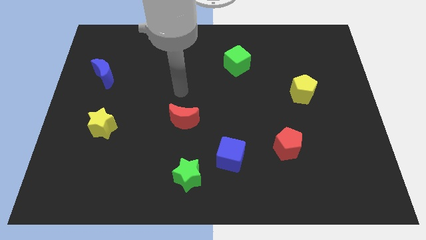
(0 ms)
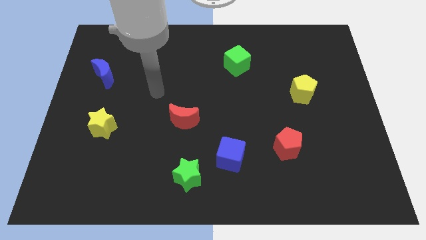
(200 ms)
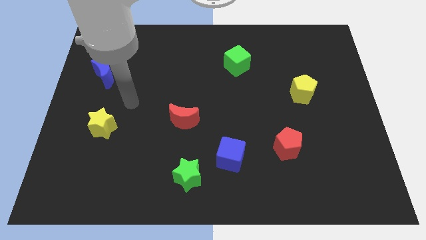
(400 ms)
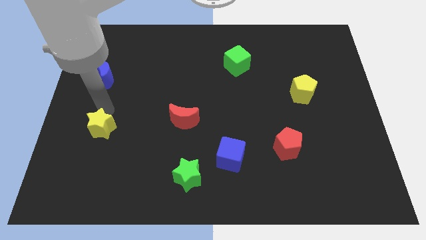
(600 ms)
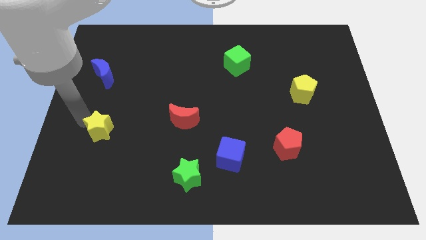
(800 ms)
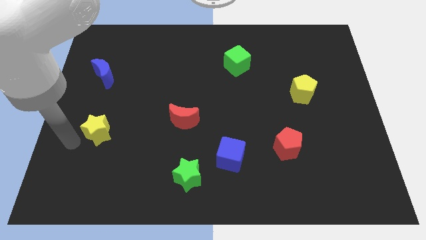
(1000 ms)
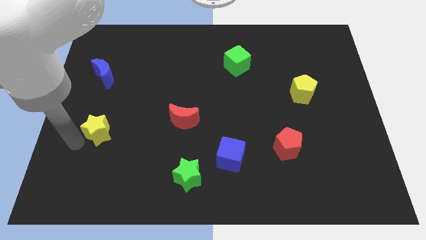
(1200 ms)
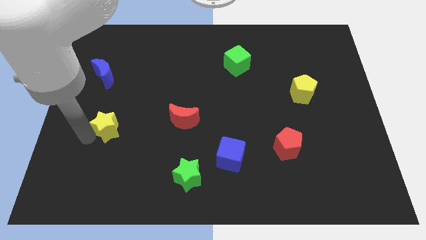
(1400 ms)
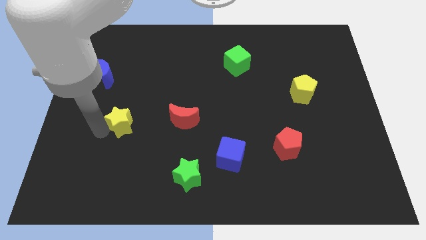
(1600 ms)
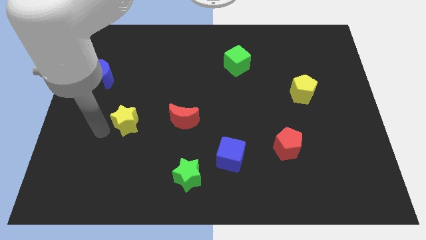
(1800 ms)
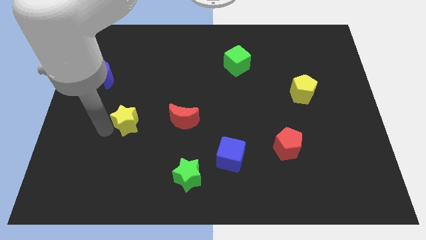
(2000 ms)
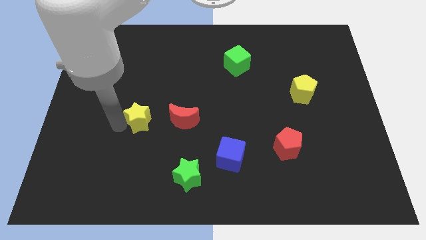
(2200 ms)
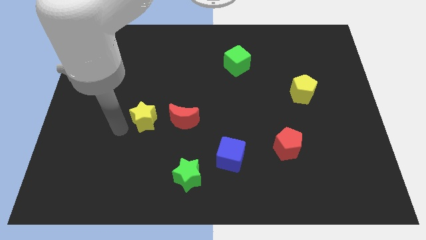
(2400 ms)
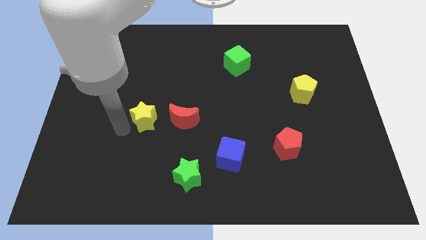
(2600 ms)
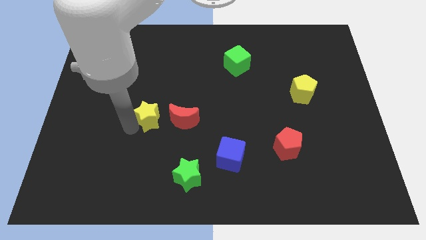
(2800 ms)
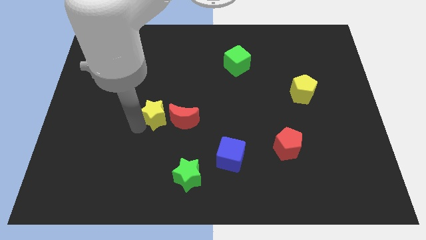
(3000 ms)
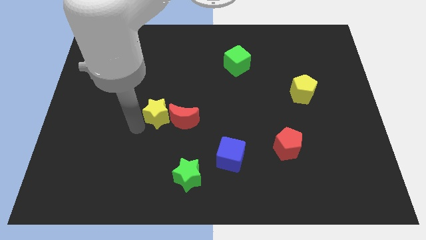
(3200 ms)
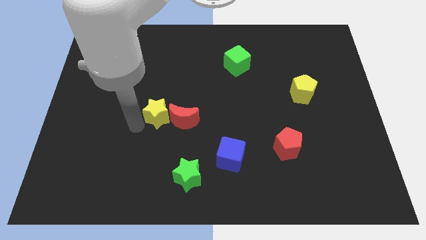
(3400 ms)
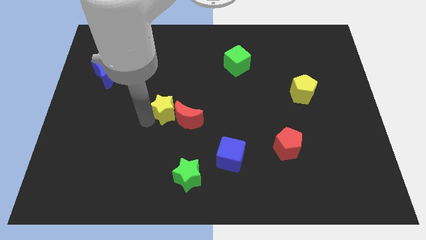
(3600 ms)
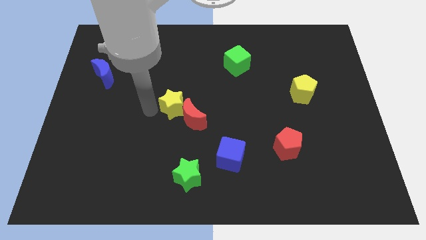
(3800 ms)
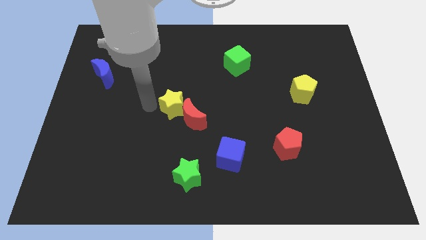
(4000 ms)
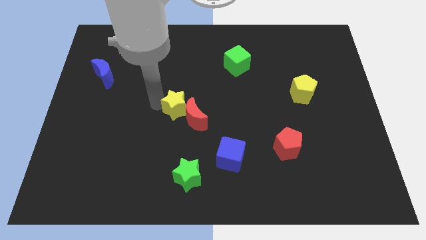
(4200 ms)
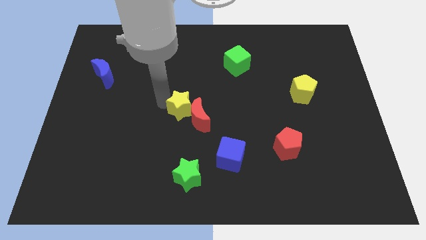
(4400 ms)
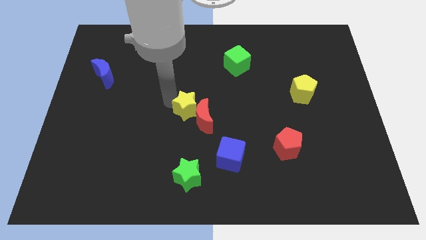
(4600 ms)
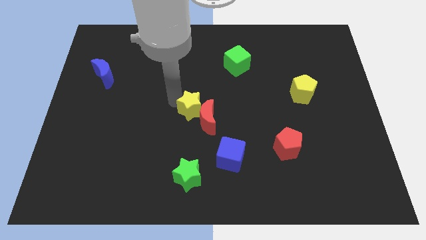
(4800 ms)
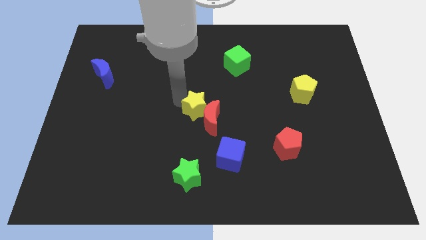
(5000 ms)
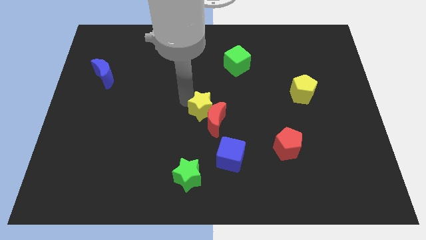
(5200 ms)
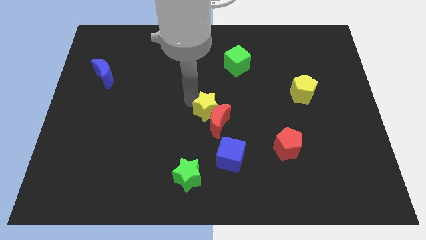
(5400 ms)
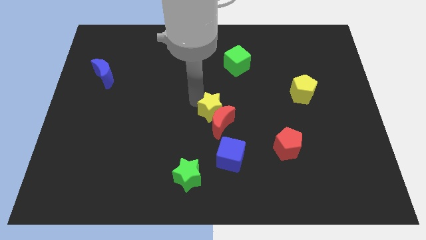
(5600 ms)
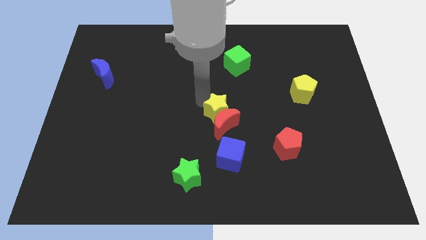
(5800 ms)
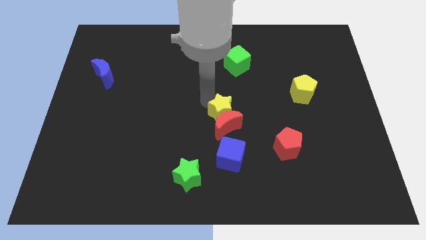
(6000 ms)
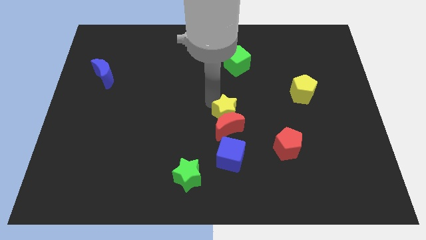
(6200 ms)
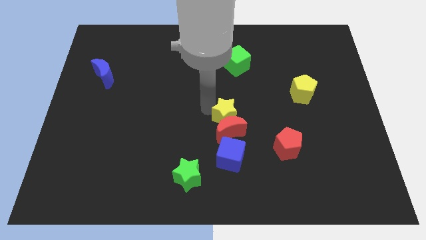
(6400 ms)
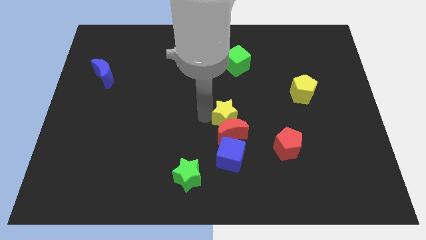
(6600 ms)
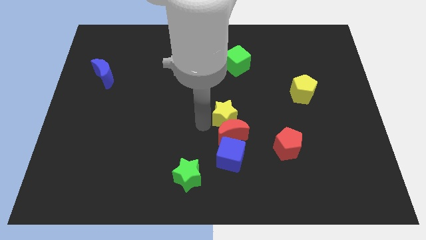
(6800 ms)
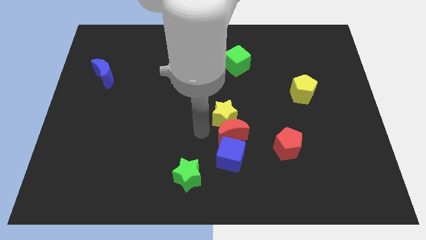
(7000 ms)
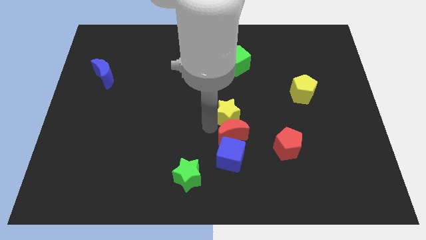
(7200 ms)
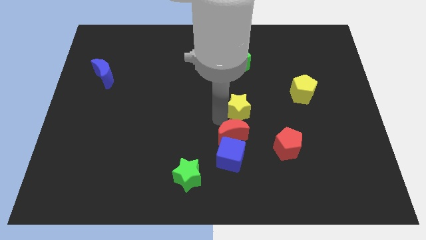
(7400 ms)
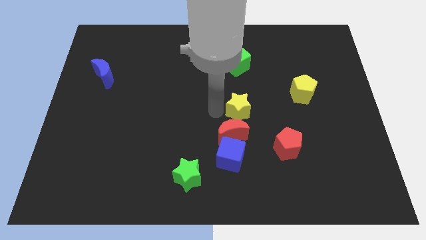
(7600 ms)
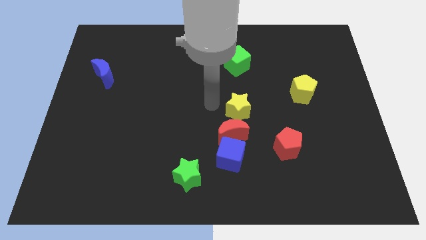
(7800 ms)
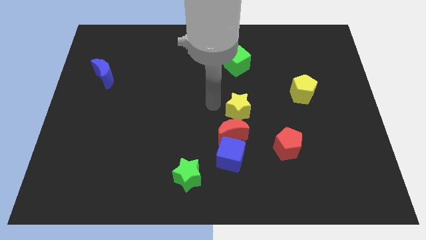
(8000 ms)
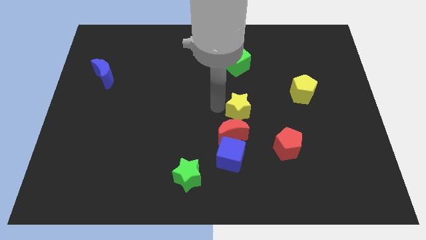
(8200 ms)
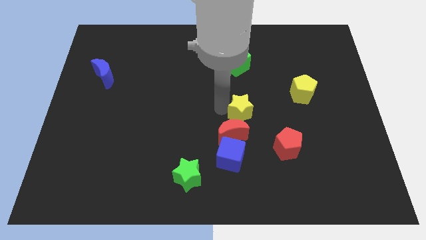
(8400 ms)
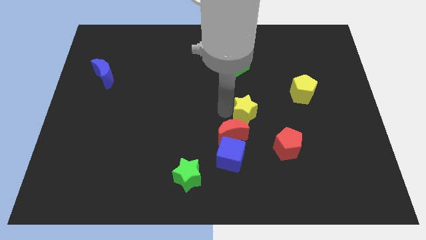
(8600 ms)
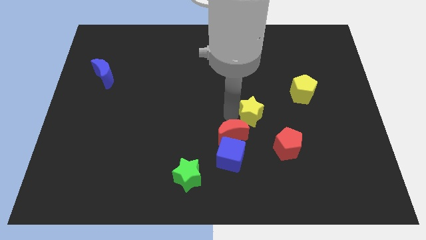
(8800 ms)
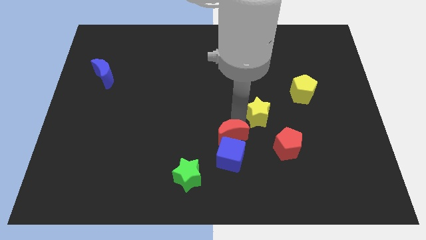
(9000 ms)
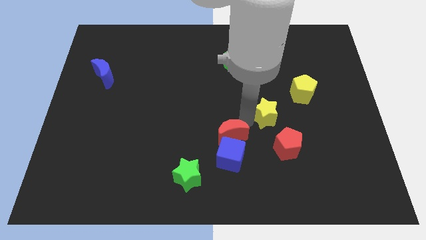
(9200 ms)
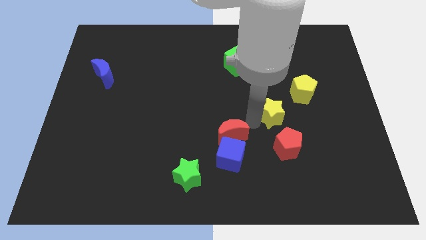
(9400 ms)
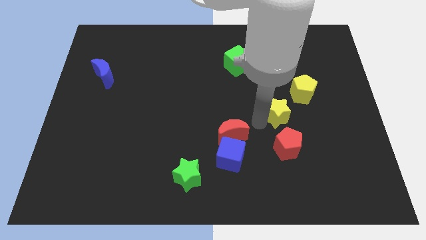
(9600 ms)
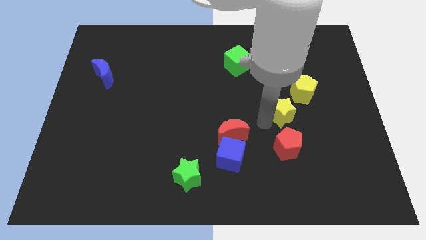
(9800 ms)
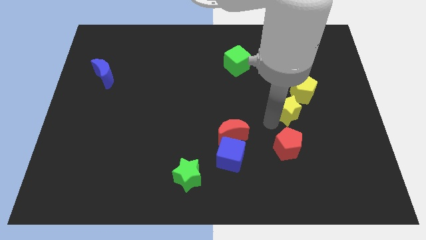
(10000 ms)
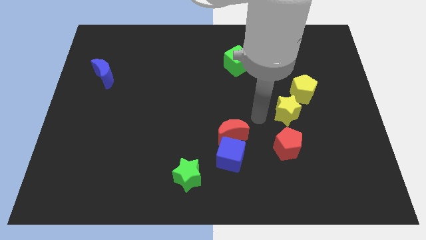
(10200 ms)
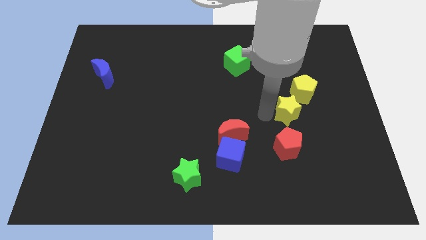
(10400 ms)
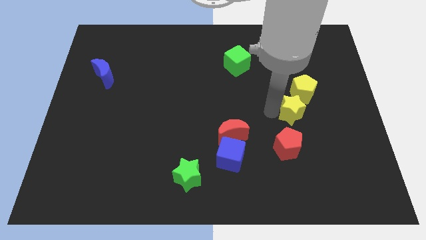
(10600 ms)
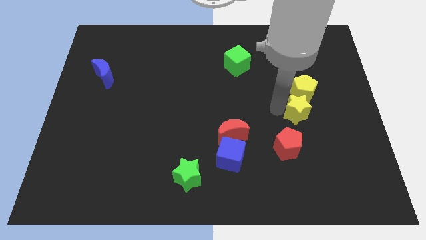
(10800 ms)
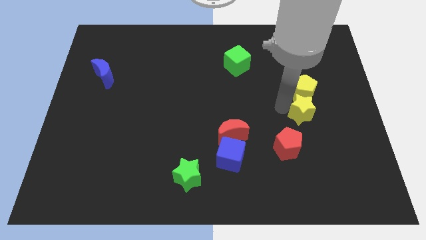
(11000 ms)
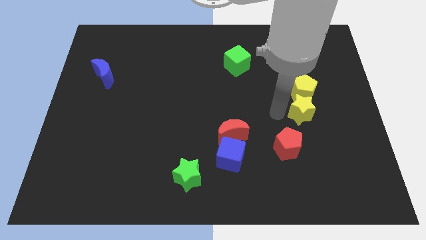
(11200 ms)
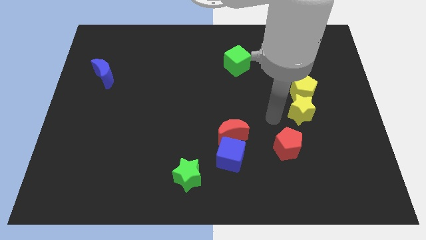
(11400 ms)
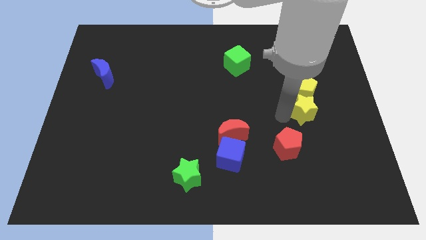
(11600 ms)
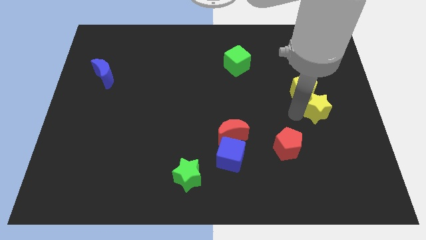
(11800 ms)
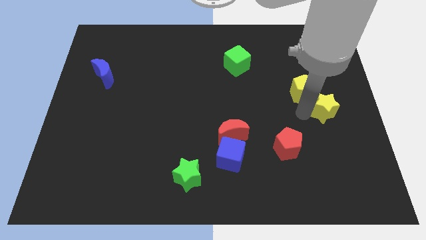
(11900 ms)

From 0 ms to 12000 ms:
move the yellow star to the right side of the board
